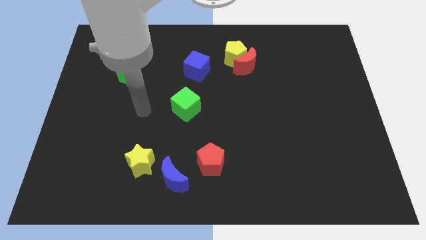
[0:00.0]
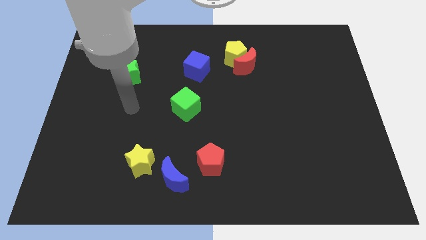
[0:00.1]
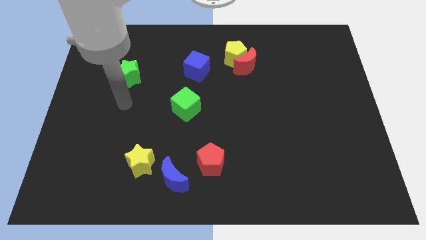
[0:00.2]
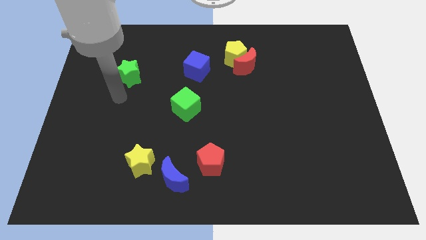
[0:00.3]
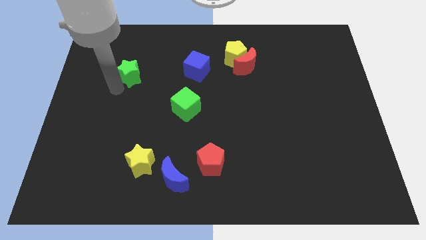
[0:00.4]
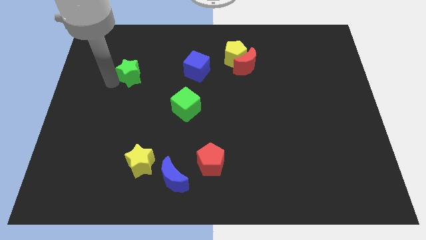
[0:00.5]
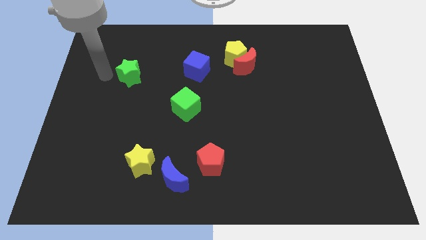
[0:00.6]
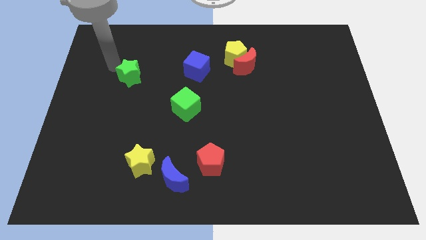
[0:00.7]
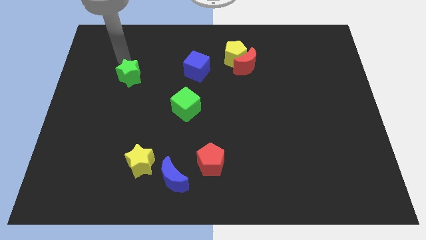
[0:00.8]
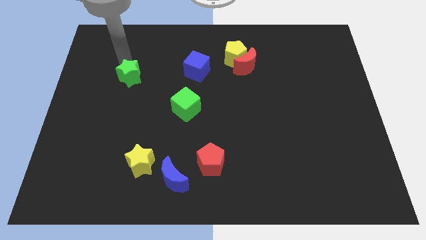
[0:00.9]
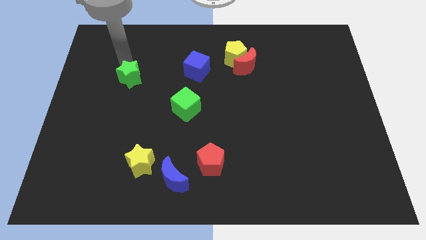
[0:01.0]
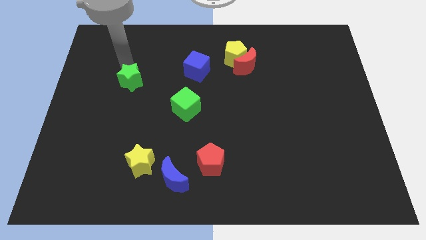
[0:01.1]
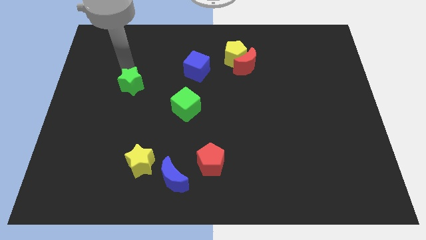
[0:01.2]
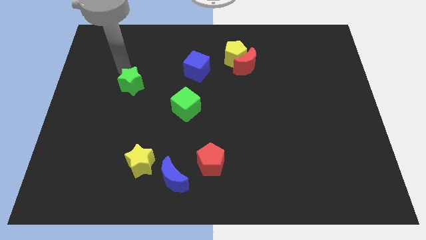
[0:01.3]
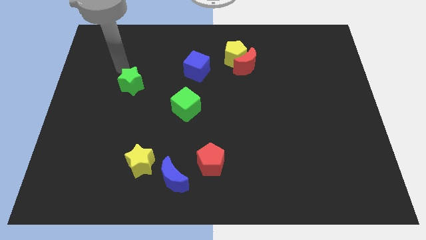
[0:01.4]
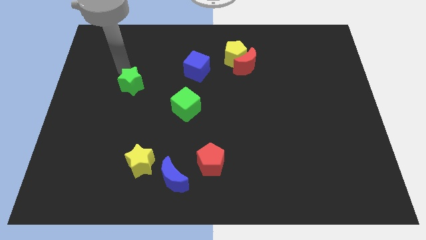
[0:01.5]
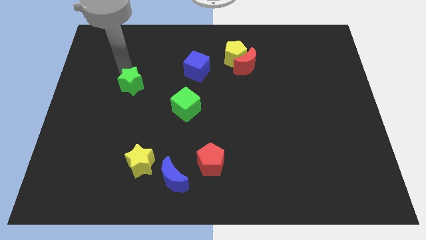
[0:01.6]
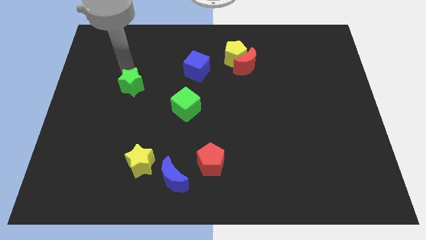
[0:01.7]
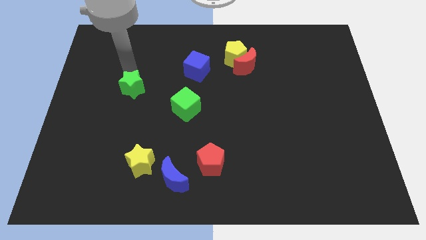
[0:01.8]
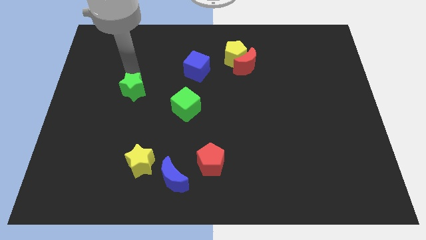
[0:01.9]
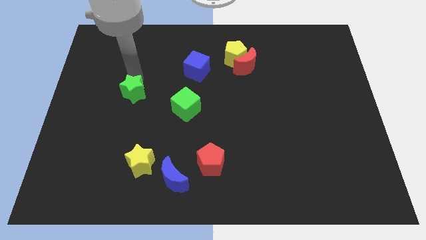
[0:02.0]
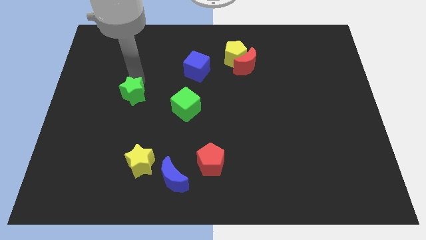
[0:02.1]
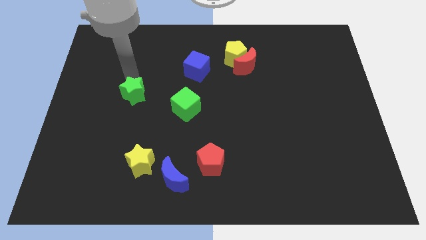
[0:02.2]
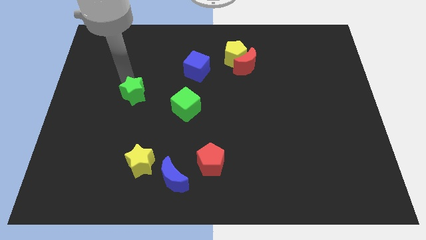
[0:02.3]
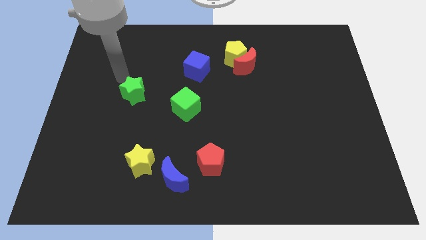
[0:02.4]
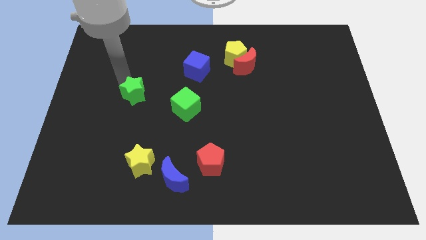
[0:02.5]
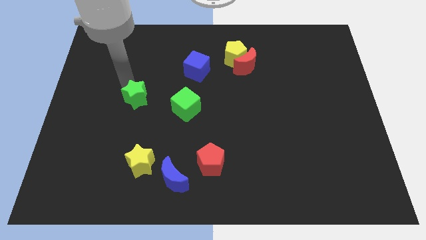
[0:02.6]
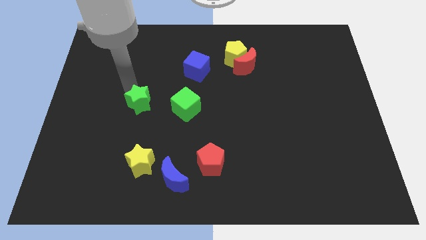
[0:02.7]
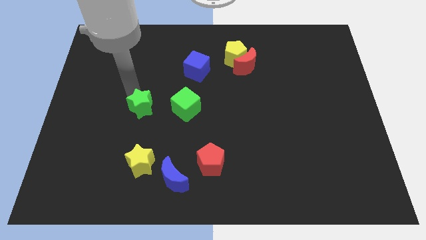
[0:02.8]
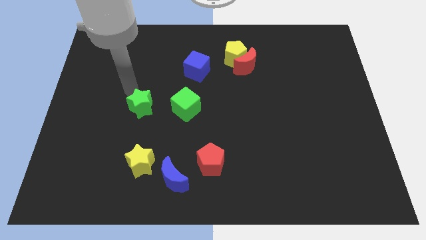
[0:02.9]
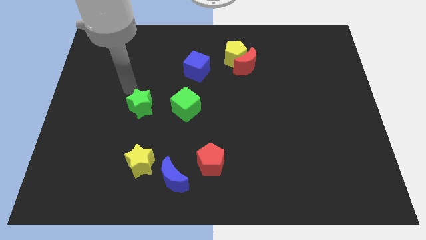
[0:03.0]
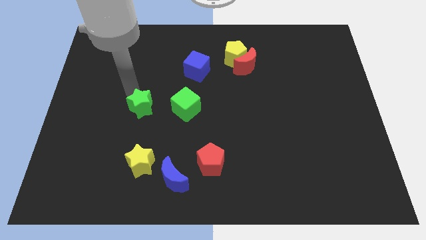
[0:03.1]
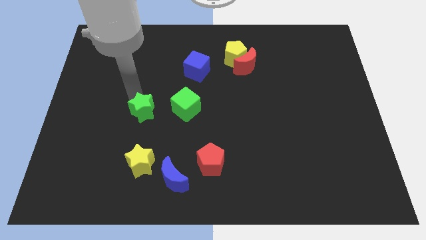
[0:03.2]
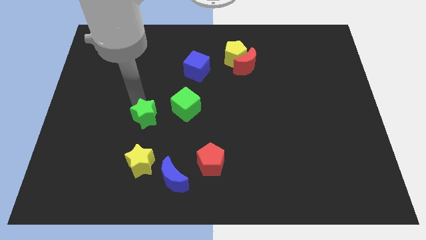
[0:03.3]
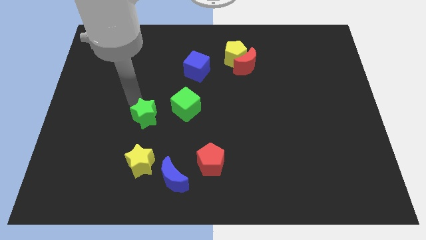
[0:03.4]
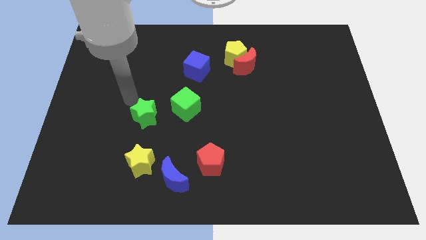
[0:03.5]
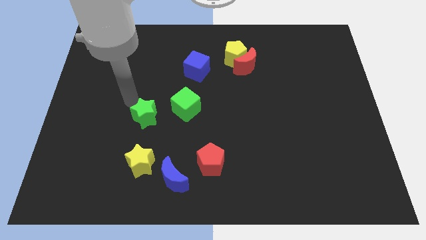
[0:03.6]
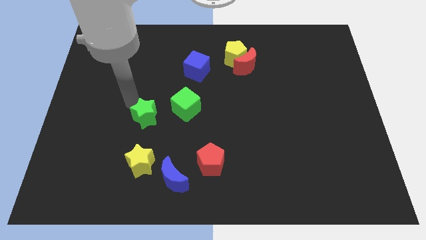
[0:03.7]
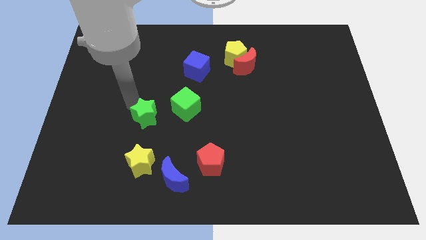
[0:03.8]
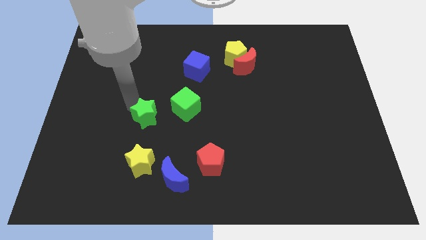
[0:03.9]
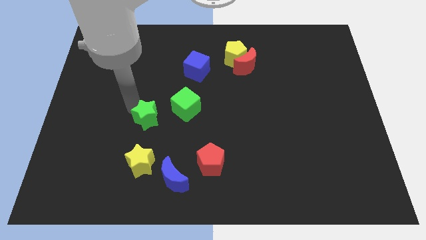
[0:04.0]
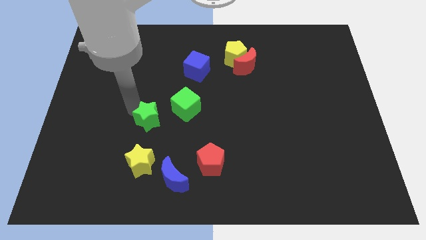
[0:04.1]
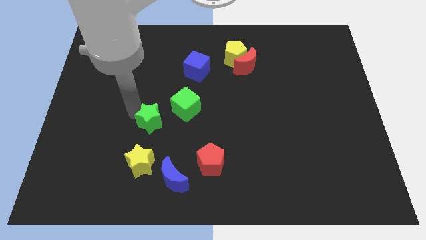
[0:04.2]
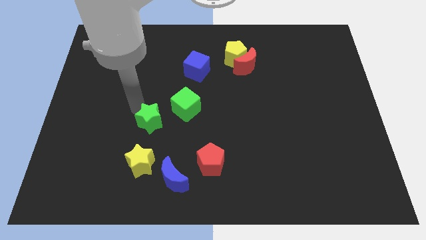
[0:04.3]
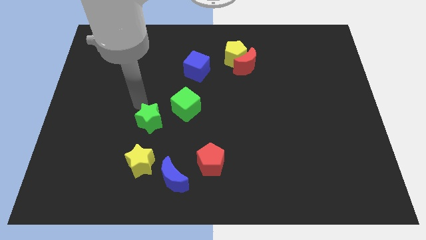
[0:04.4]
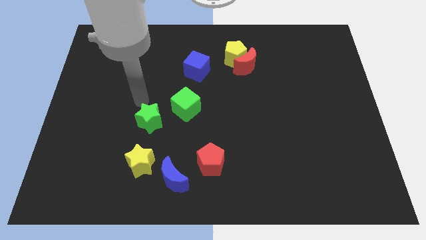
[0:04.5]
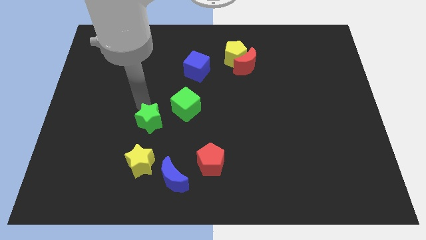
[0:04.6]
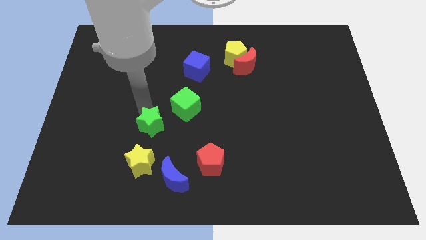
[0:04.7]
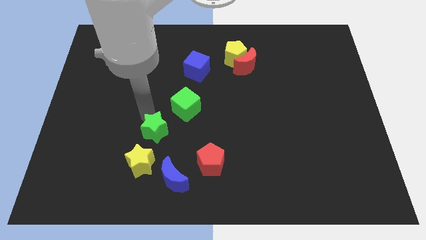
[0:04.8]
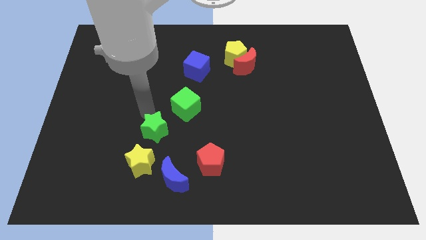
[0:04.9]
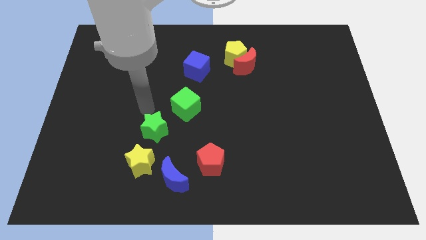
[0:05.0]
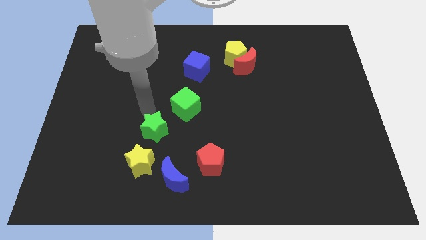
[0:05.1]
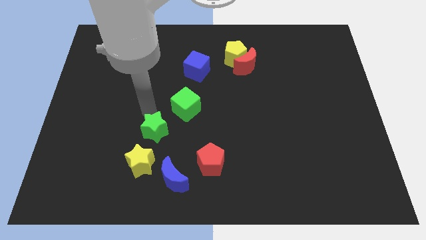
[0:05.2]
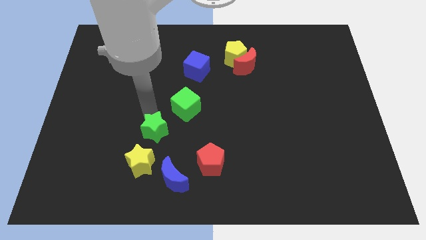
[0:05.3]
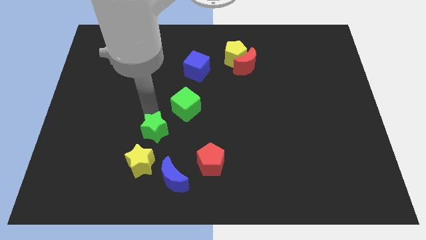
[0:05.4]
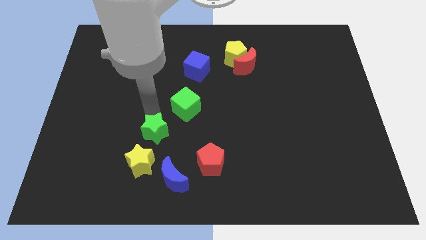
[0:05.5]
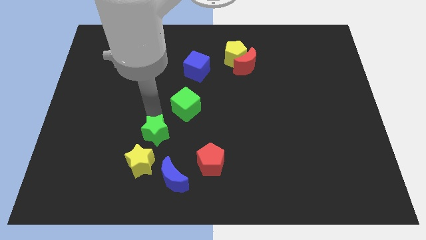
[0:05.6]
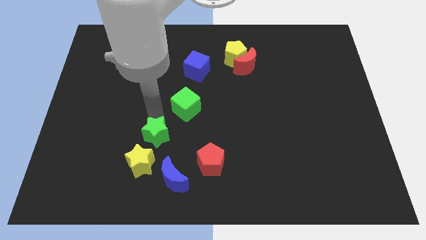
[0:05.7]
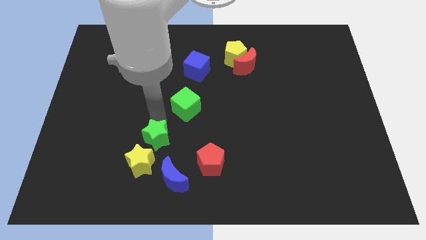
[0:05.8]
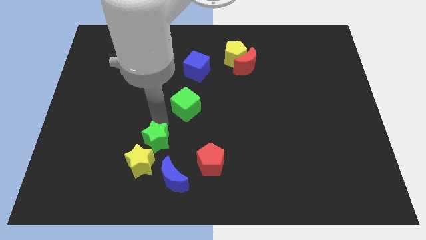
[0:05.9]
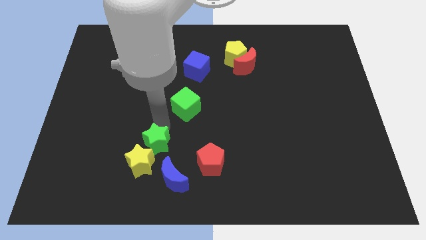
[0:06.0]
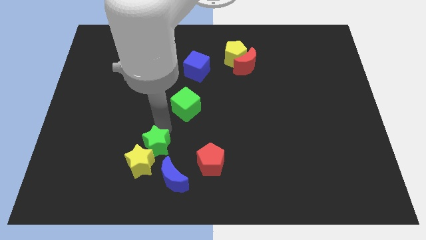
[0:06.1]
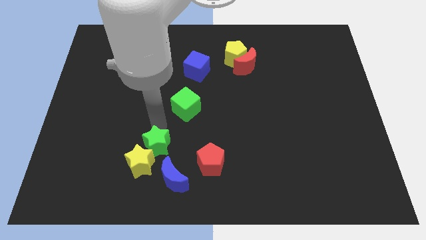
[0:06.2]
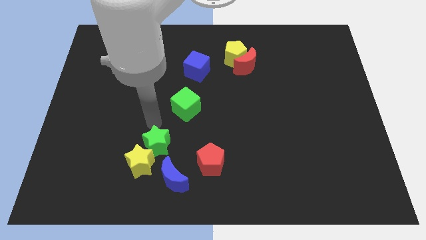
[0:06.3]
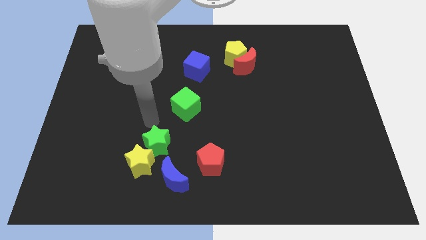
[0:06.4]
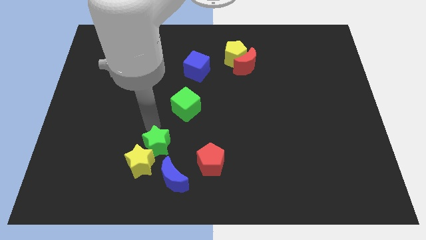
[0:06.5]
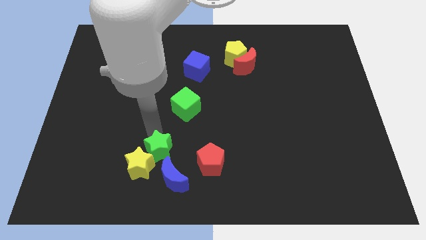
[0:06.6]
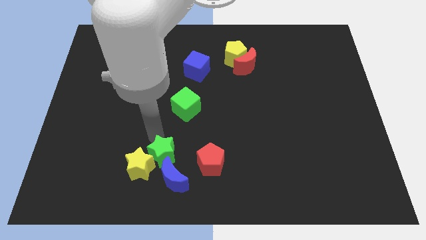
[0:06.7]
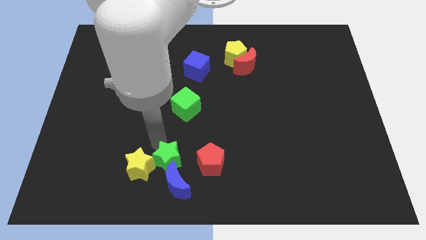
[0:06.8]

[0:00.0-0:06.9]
push the green star to the blue moon
